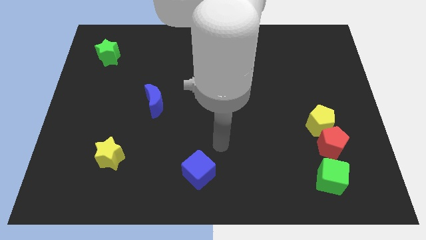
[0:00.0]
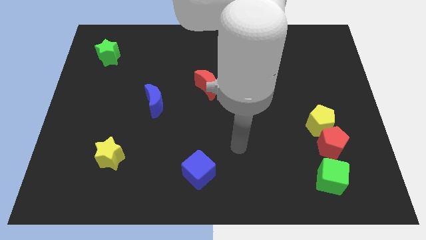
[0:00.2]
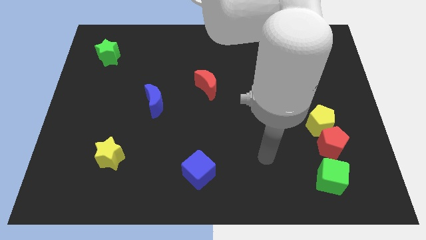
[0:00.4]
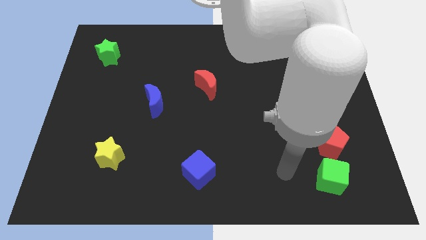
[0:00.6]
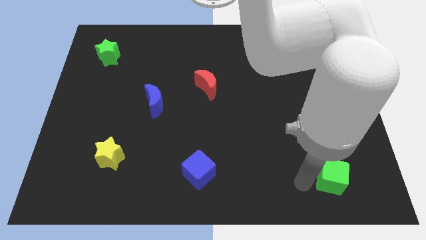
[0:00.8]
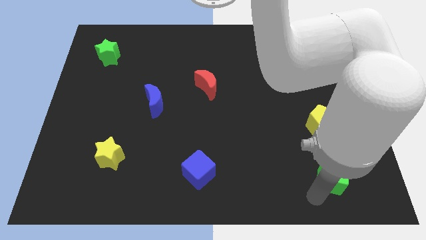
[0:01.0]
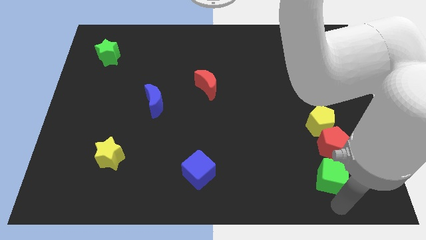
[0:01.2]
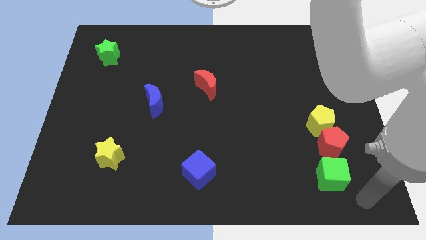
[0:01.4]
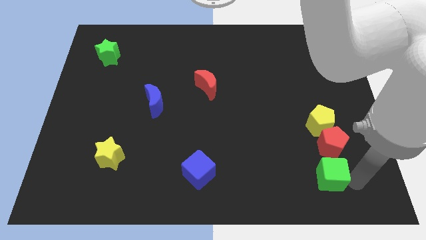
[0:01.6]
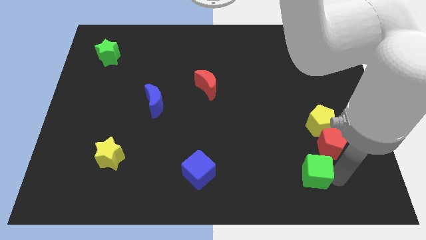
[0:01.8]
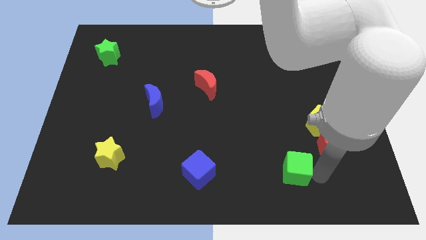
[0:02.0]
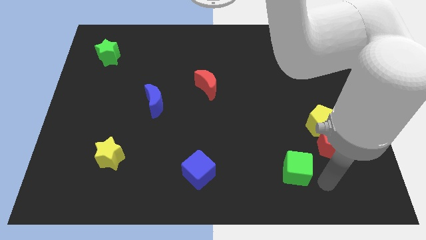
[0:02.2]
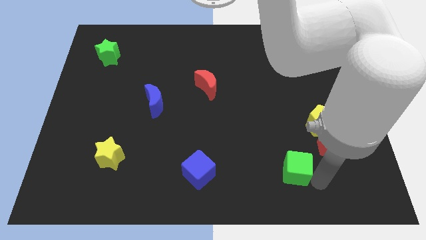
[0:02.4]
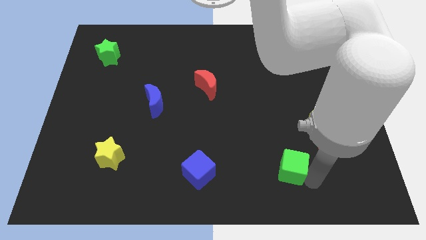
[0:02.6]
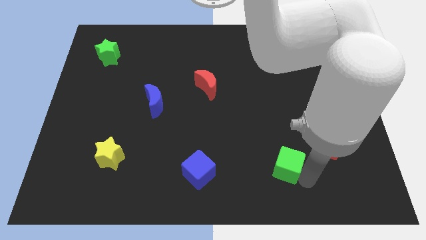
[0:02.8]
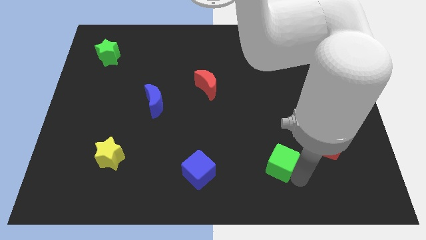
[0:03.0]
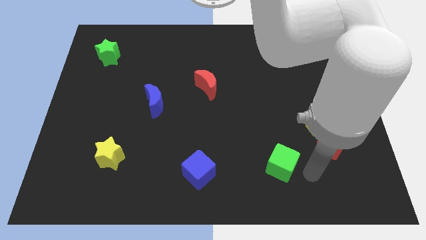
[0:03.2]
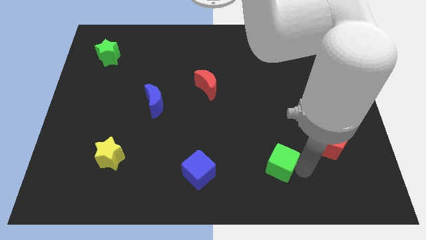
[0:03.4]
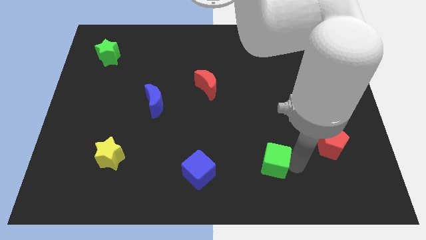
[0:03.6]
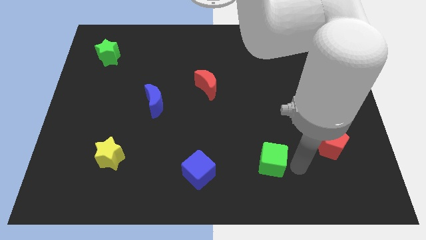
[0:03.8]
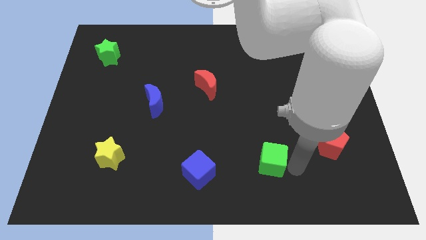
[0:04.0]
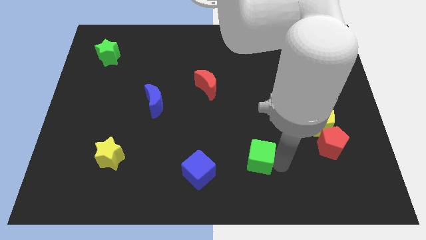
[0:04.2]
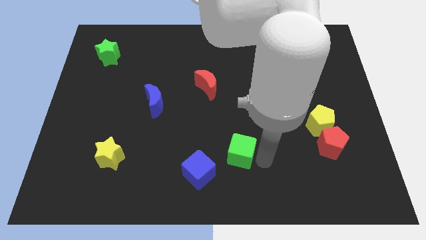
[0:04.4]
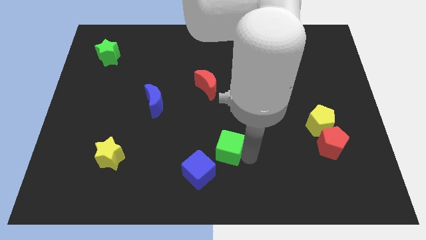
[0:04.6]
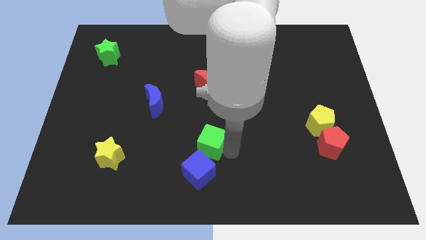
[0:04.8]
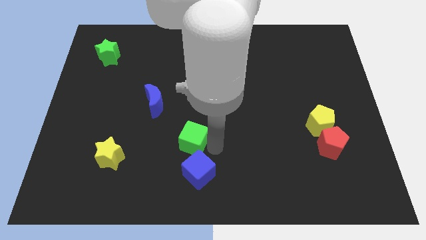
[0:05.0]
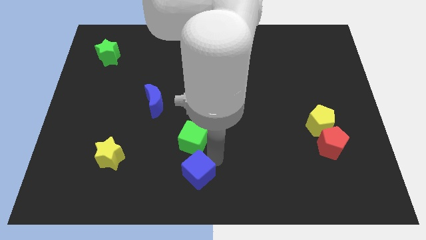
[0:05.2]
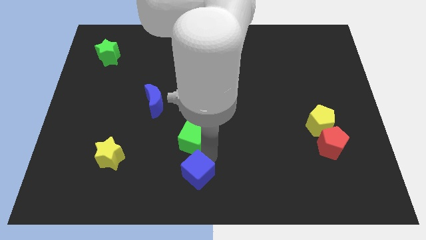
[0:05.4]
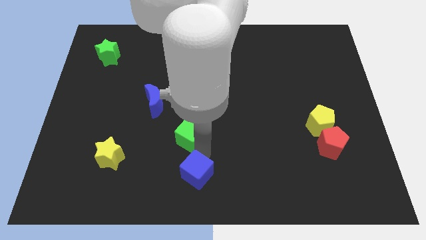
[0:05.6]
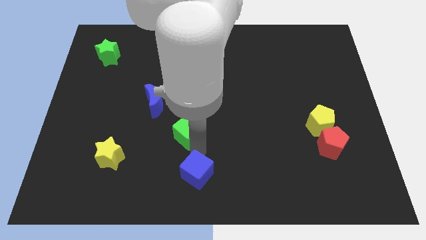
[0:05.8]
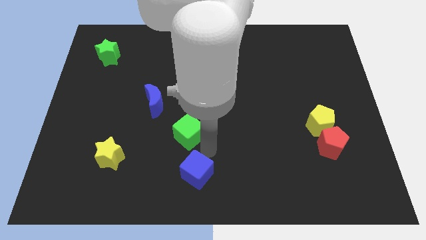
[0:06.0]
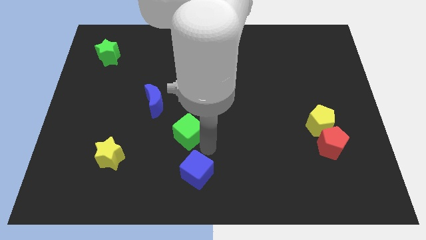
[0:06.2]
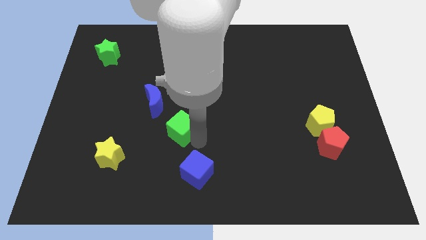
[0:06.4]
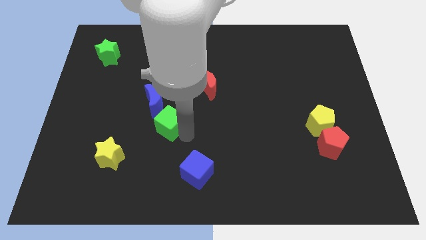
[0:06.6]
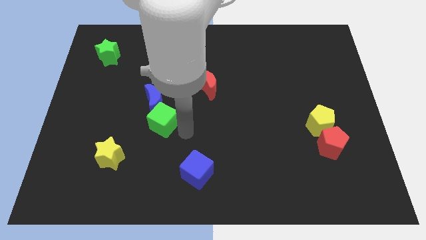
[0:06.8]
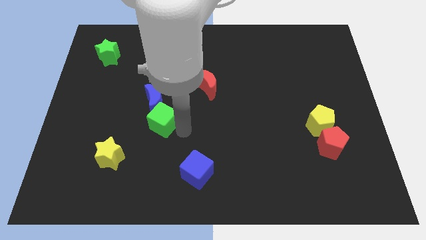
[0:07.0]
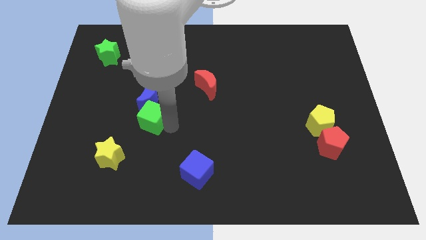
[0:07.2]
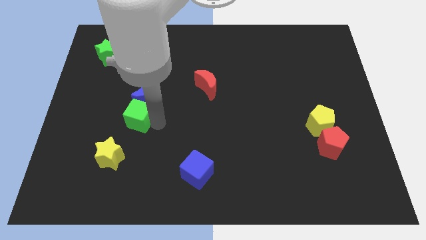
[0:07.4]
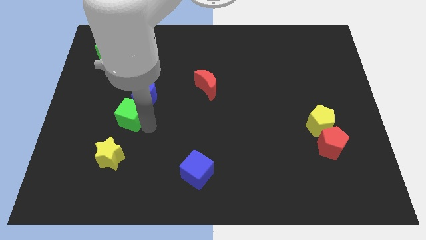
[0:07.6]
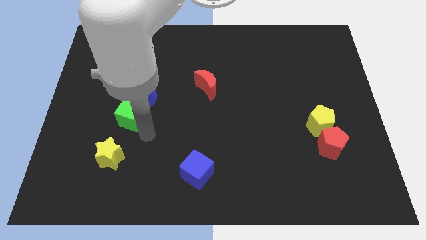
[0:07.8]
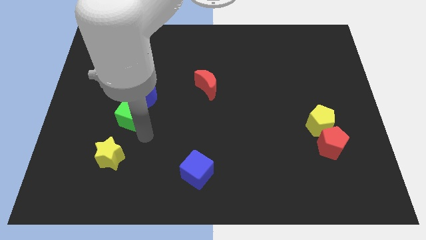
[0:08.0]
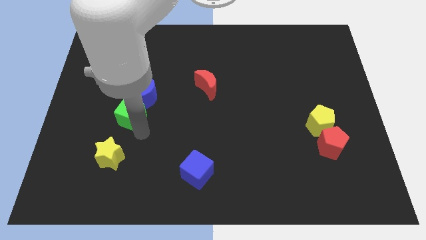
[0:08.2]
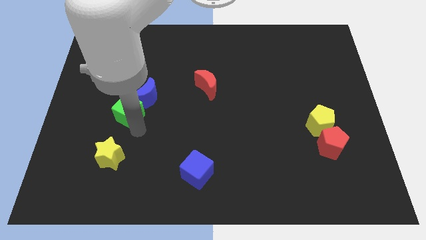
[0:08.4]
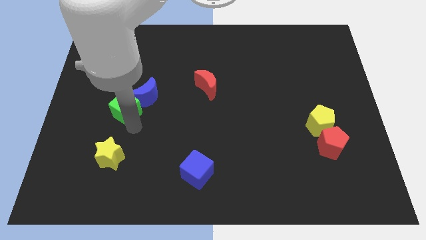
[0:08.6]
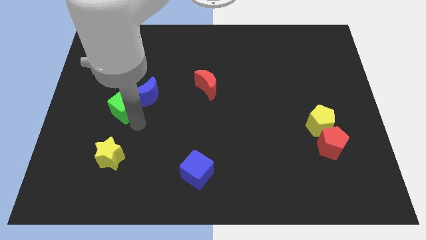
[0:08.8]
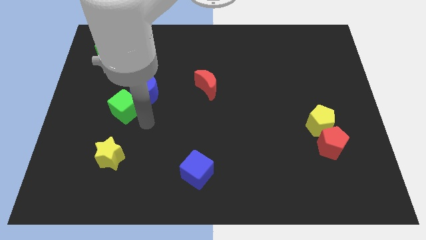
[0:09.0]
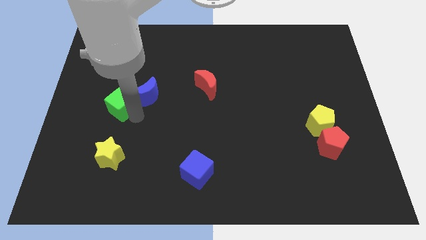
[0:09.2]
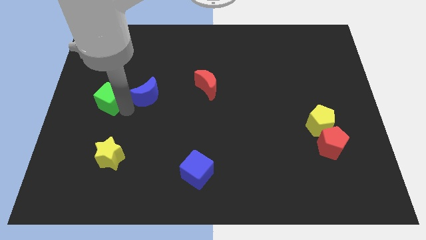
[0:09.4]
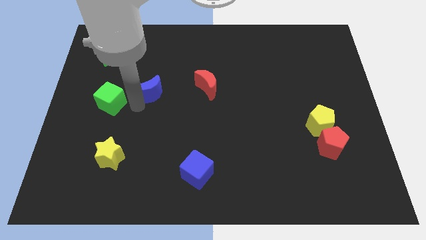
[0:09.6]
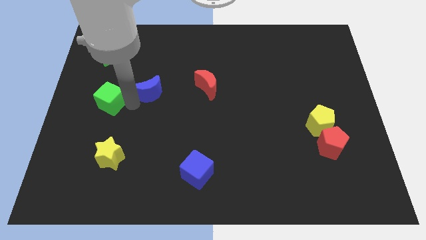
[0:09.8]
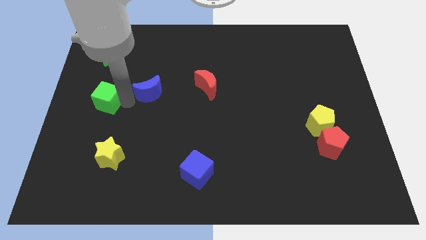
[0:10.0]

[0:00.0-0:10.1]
push the green cube to the center left
